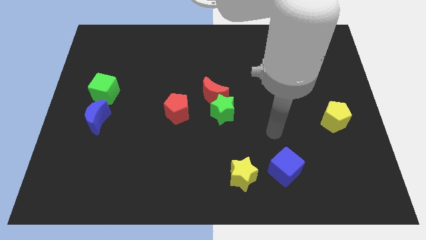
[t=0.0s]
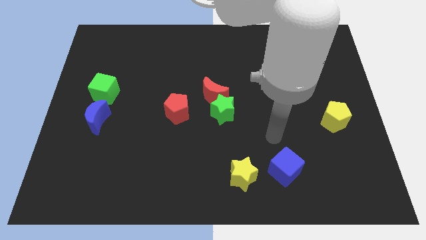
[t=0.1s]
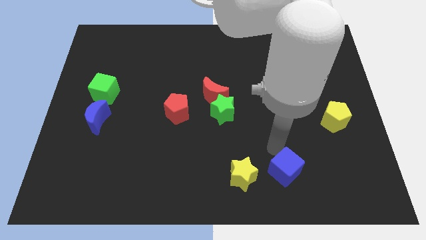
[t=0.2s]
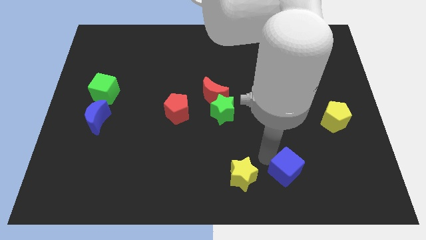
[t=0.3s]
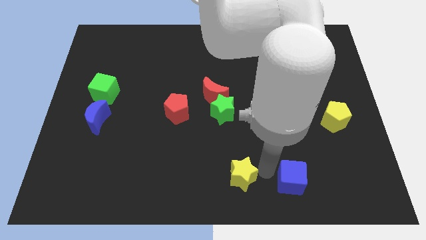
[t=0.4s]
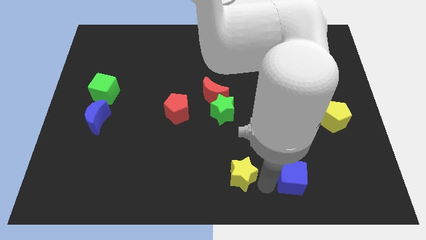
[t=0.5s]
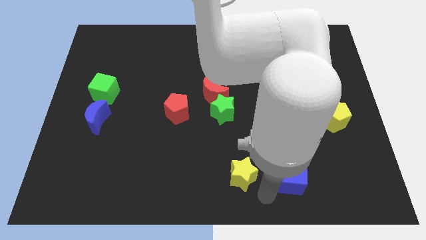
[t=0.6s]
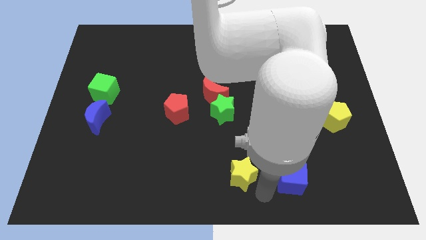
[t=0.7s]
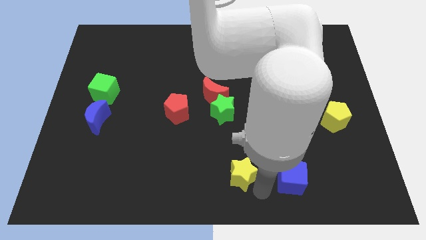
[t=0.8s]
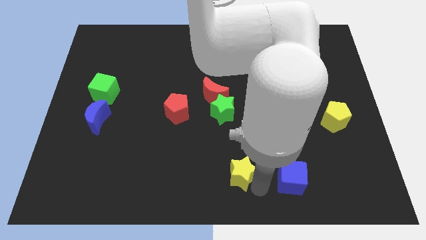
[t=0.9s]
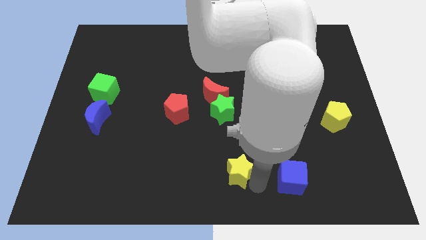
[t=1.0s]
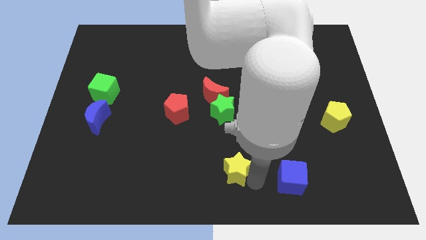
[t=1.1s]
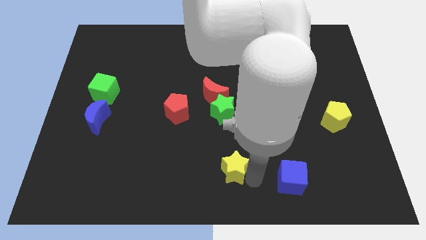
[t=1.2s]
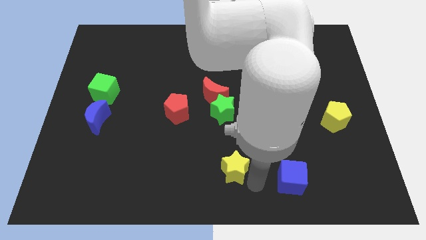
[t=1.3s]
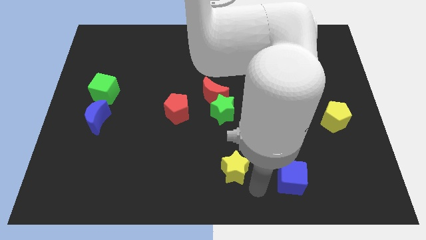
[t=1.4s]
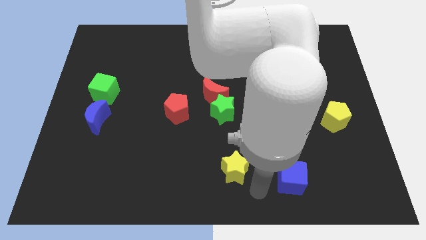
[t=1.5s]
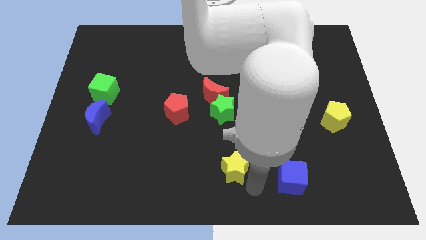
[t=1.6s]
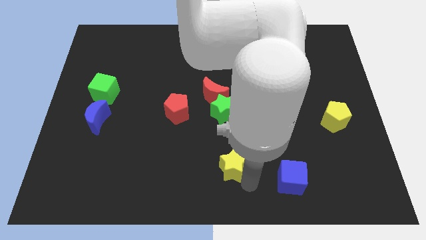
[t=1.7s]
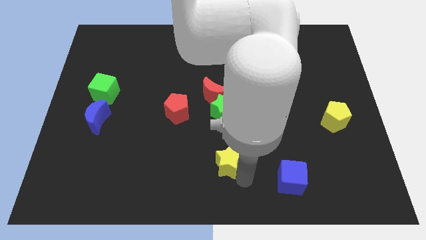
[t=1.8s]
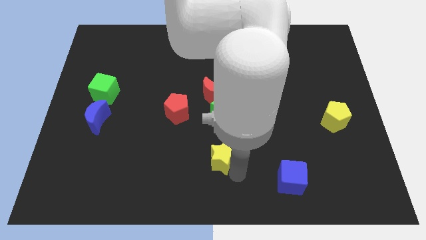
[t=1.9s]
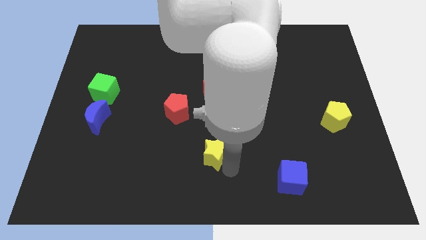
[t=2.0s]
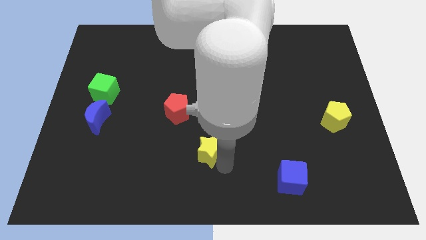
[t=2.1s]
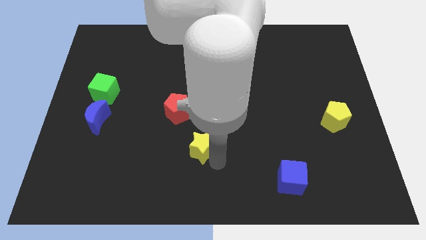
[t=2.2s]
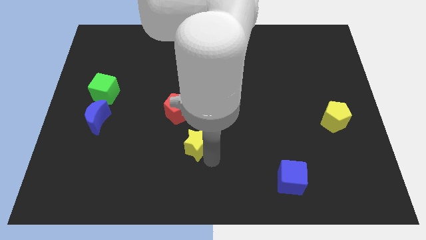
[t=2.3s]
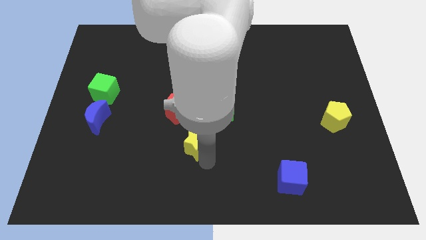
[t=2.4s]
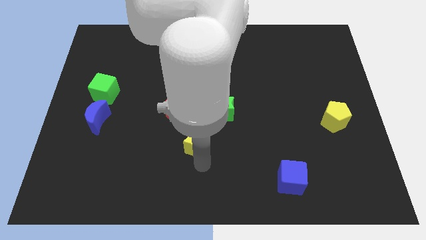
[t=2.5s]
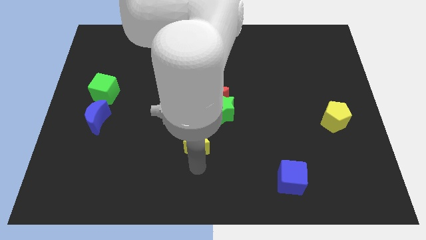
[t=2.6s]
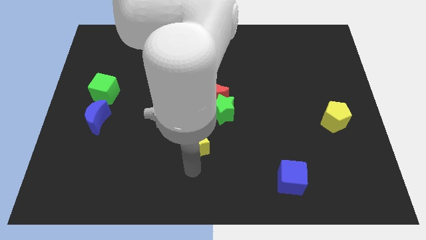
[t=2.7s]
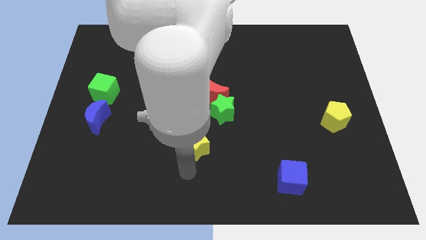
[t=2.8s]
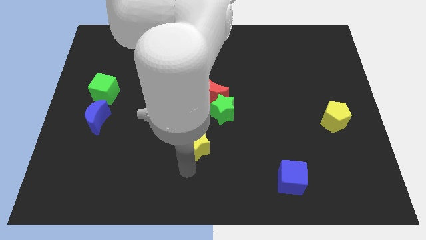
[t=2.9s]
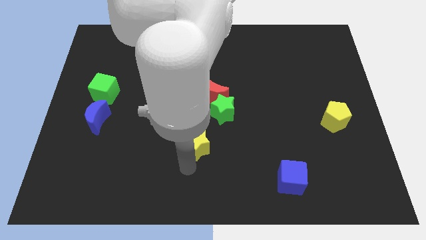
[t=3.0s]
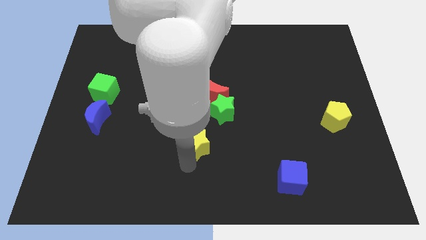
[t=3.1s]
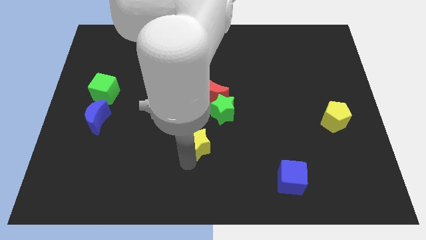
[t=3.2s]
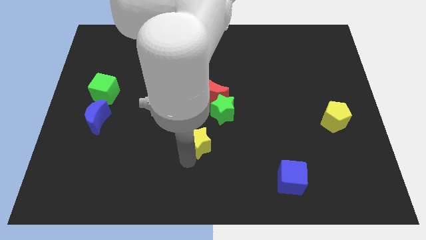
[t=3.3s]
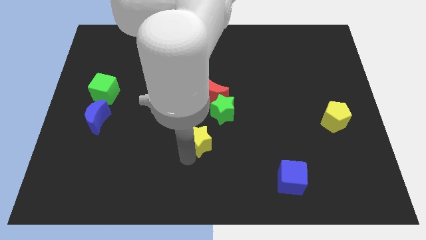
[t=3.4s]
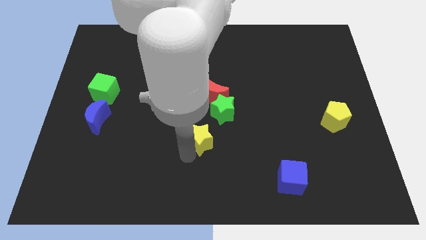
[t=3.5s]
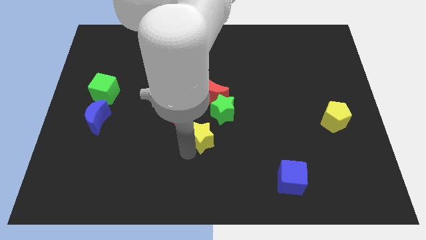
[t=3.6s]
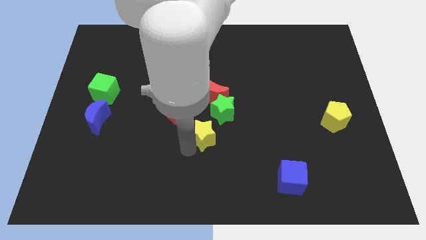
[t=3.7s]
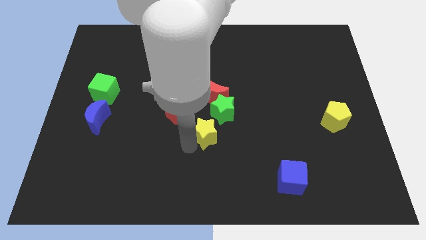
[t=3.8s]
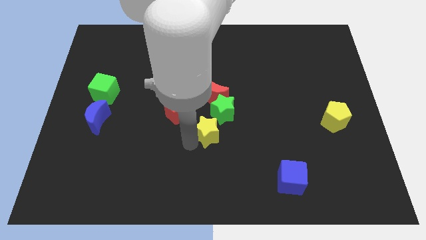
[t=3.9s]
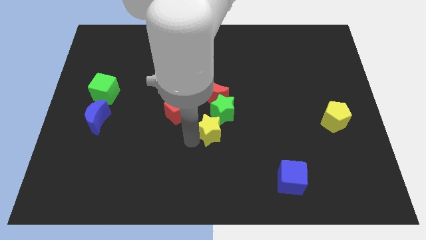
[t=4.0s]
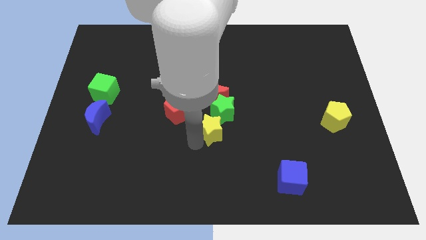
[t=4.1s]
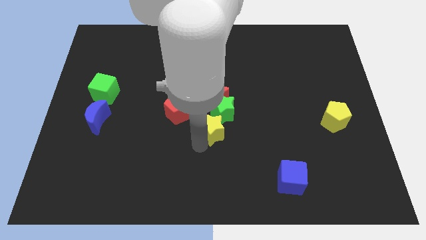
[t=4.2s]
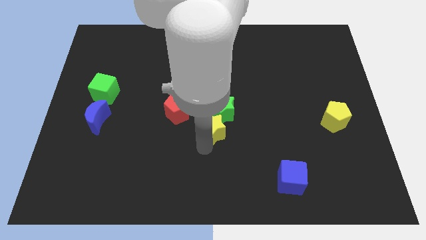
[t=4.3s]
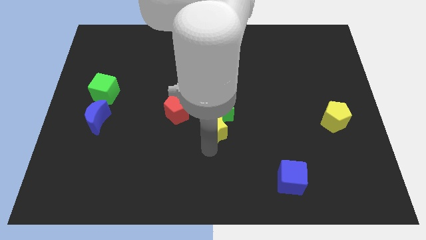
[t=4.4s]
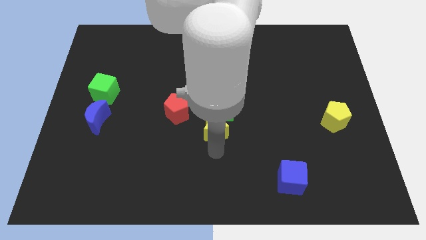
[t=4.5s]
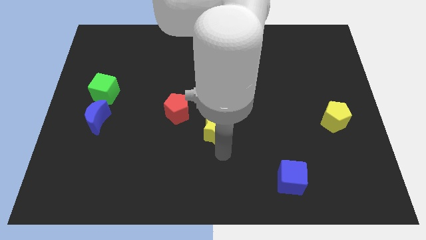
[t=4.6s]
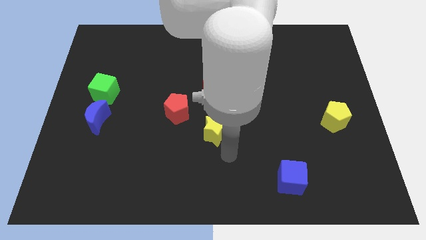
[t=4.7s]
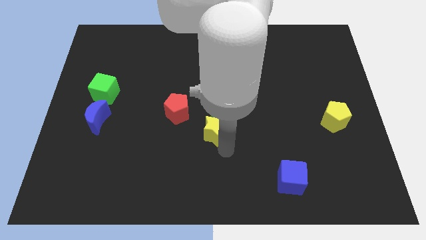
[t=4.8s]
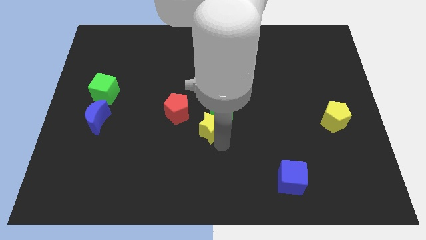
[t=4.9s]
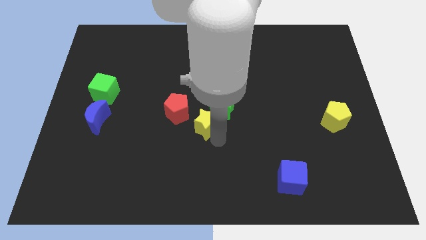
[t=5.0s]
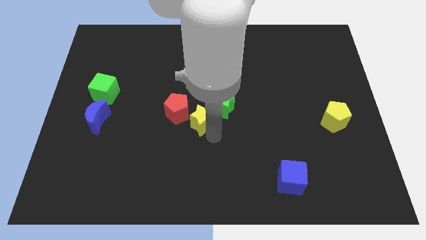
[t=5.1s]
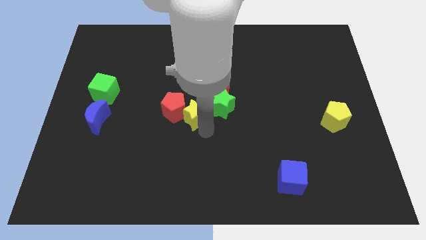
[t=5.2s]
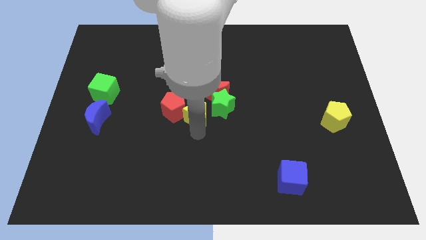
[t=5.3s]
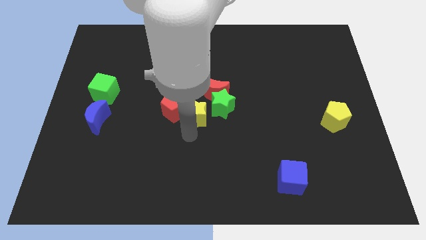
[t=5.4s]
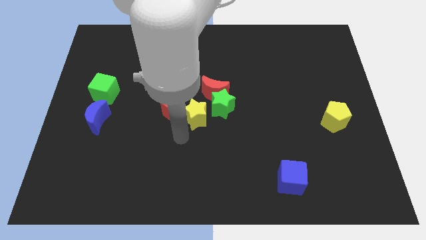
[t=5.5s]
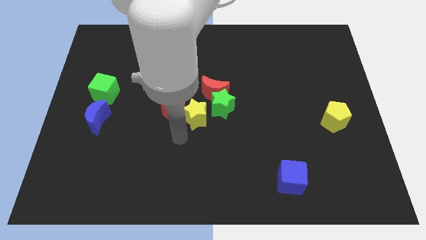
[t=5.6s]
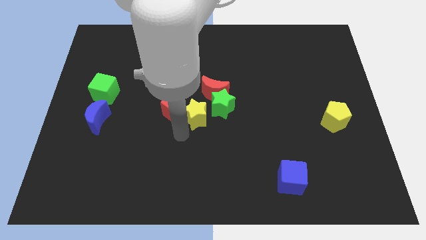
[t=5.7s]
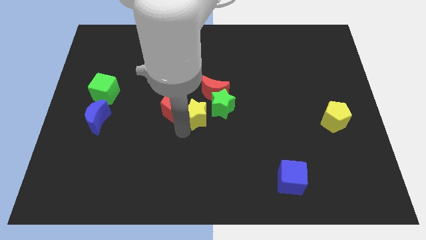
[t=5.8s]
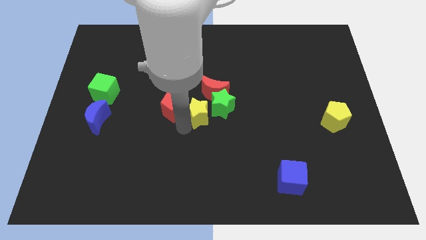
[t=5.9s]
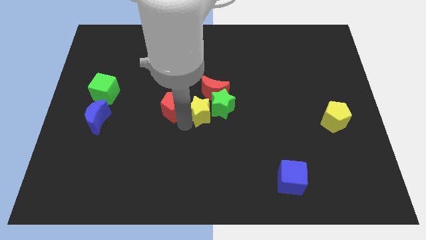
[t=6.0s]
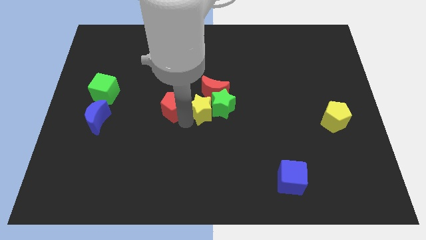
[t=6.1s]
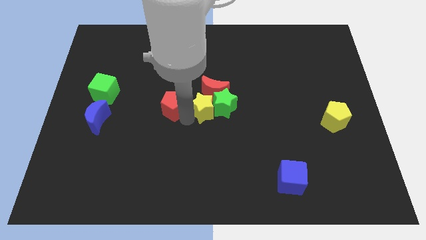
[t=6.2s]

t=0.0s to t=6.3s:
move the yellow star towards the red moon

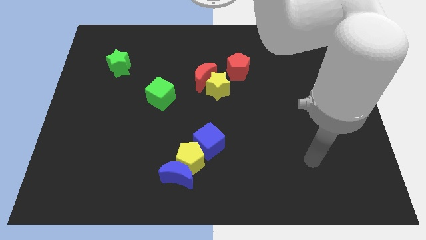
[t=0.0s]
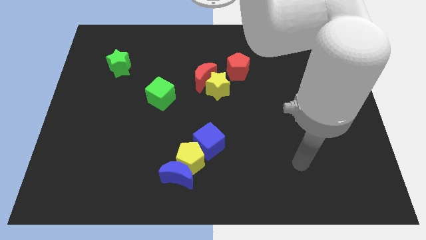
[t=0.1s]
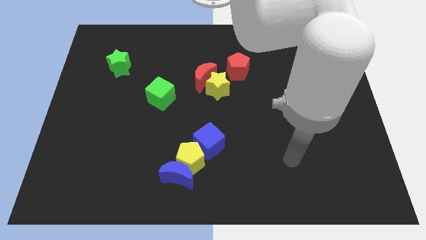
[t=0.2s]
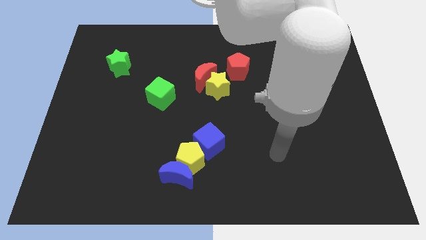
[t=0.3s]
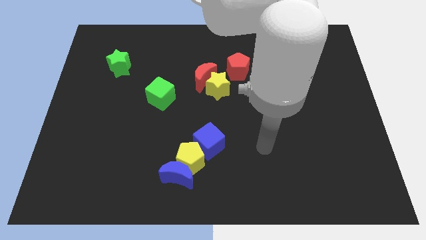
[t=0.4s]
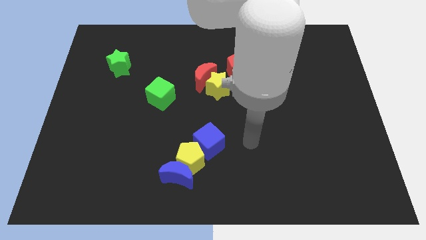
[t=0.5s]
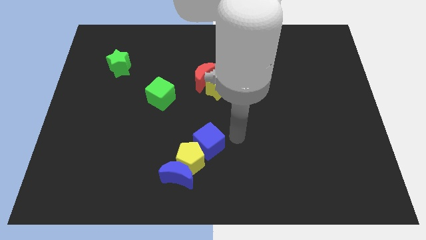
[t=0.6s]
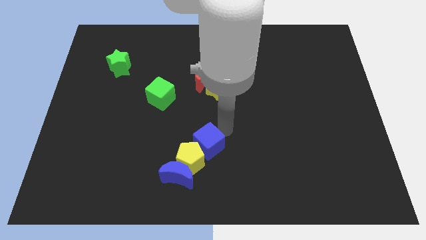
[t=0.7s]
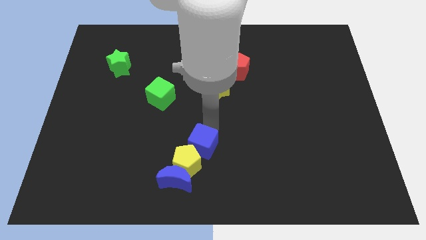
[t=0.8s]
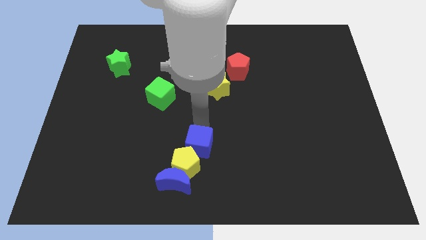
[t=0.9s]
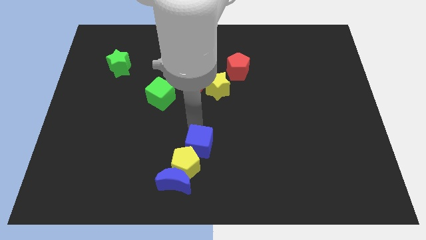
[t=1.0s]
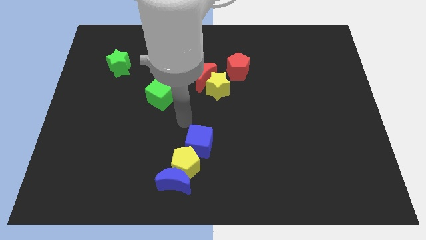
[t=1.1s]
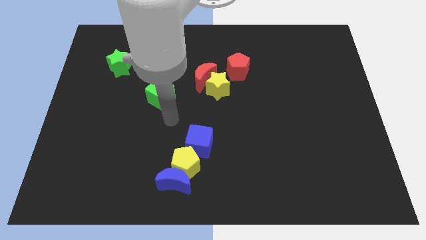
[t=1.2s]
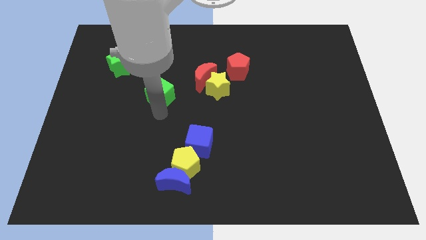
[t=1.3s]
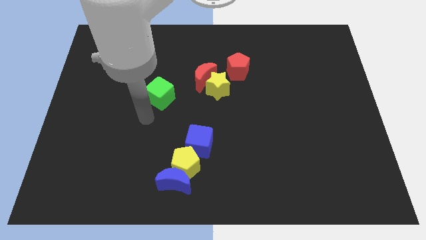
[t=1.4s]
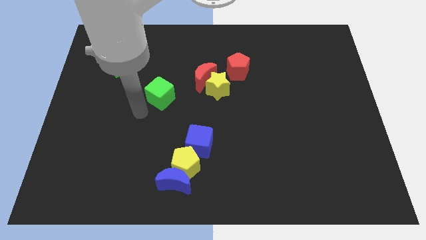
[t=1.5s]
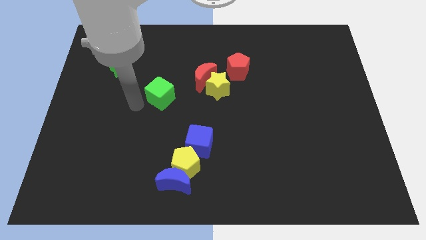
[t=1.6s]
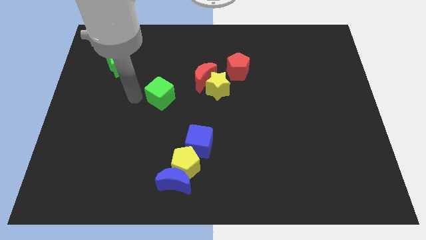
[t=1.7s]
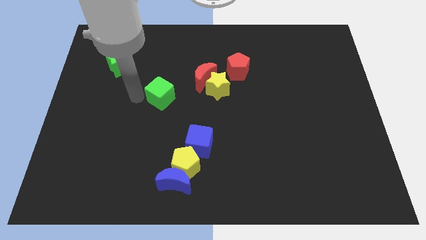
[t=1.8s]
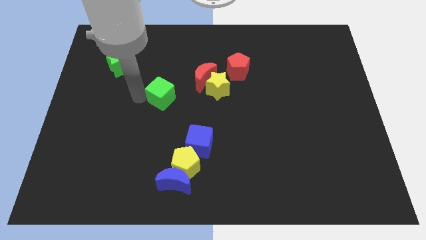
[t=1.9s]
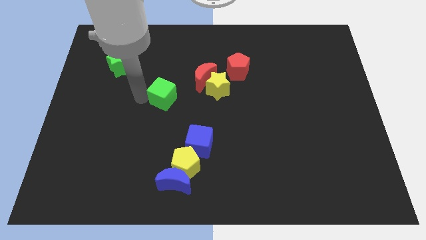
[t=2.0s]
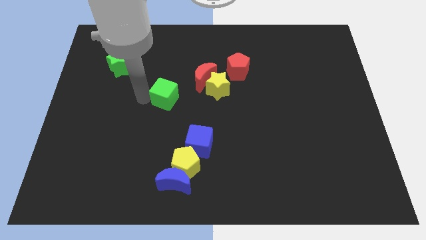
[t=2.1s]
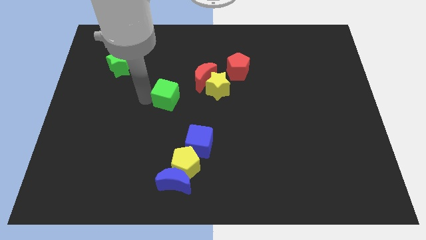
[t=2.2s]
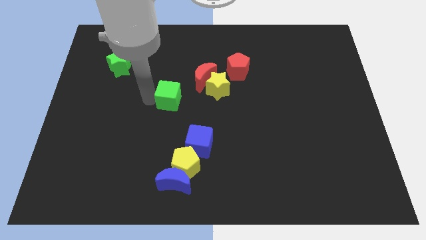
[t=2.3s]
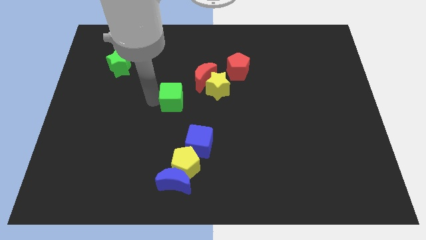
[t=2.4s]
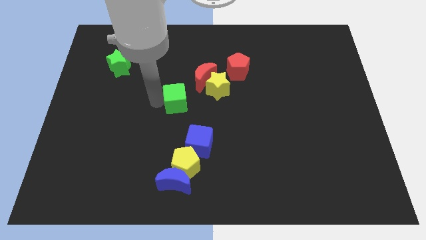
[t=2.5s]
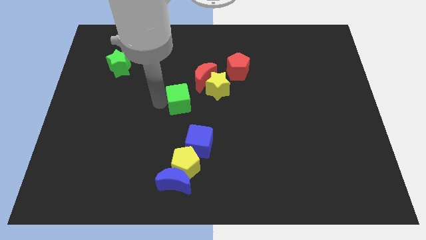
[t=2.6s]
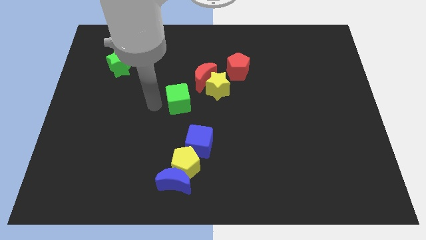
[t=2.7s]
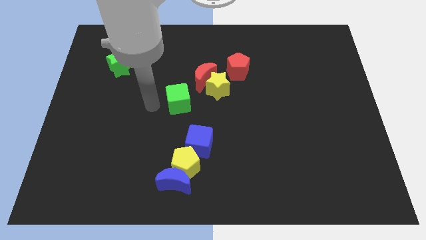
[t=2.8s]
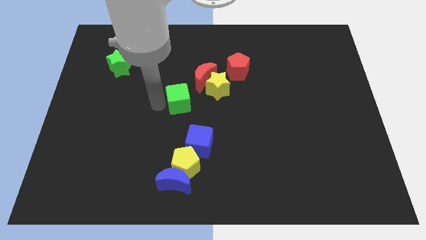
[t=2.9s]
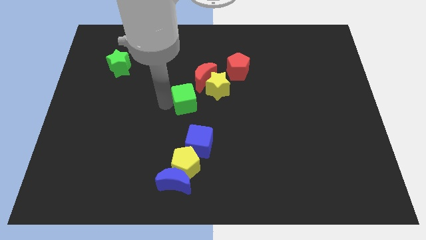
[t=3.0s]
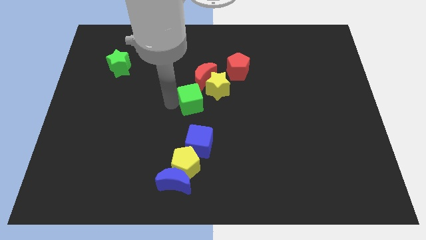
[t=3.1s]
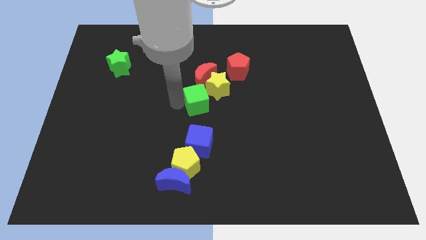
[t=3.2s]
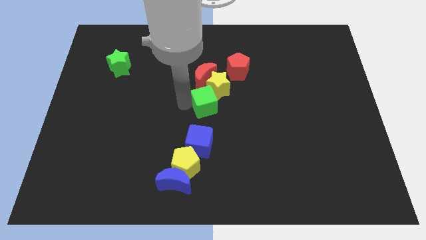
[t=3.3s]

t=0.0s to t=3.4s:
put the green cube close to the yellow star
